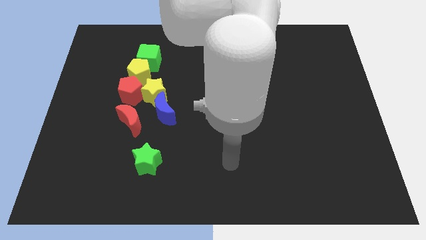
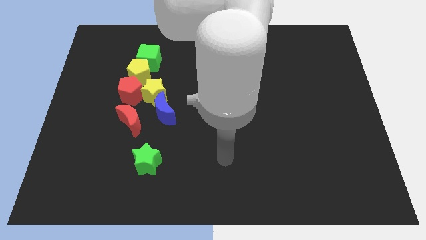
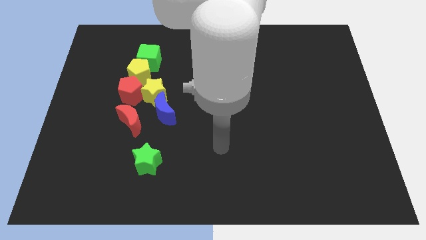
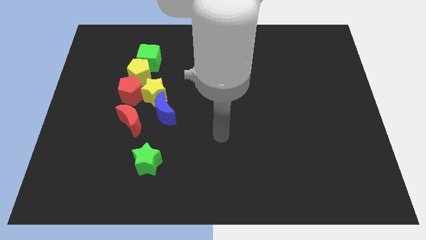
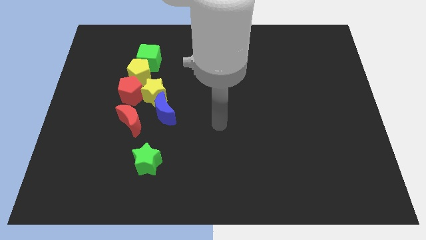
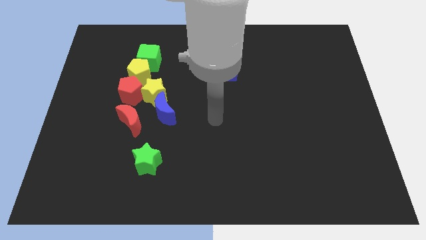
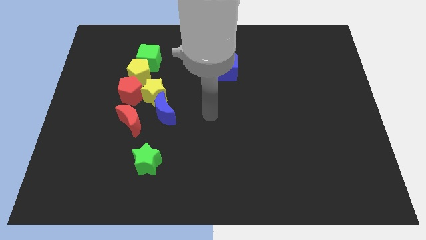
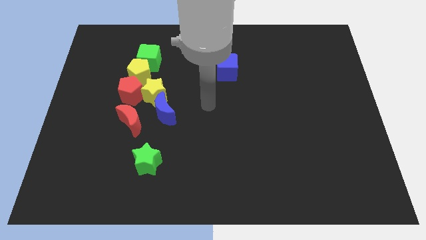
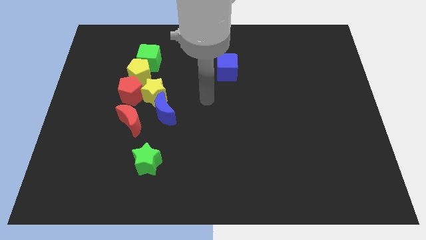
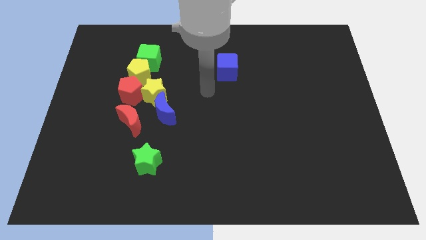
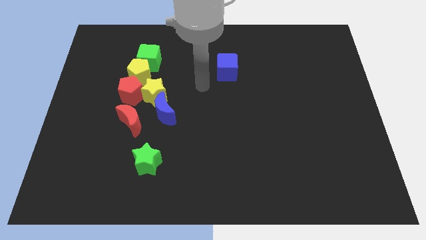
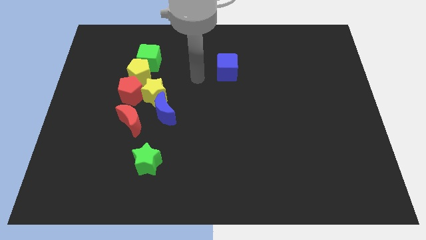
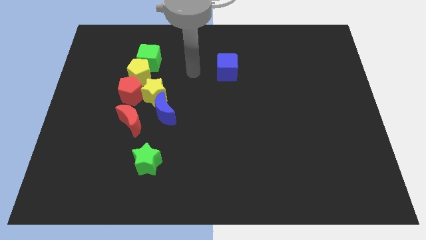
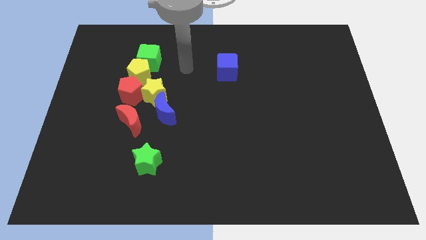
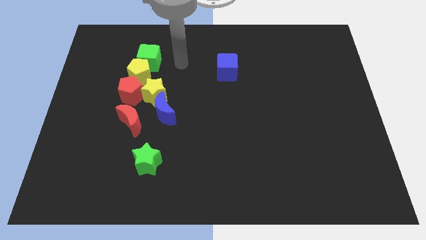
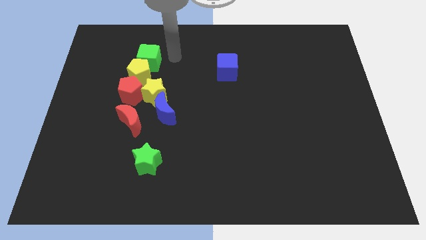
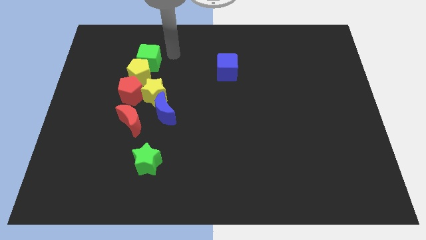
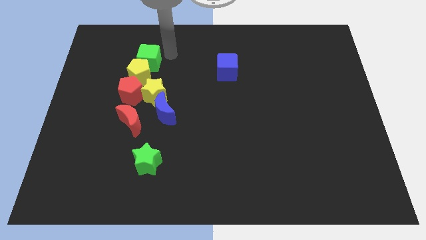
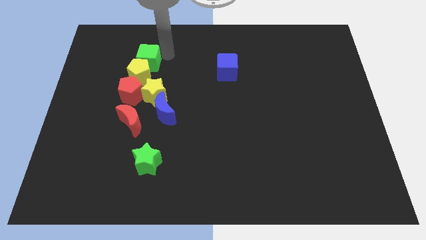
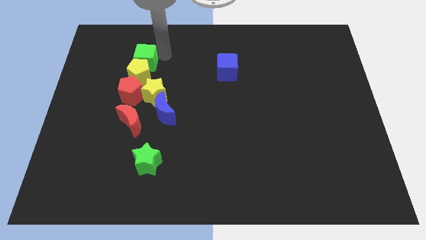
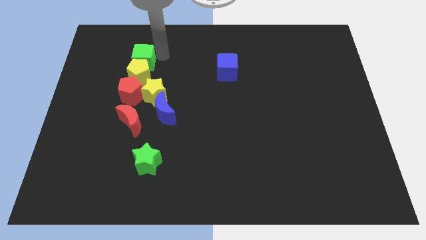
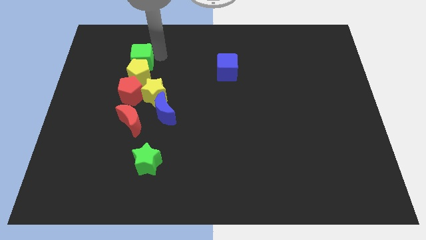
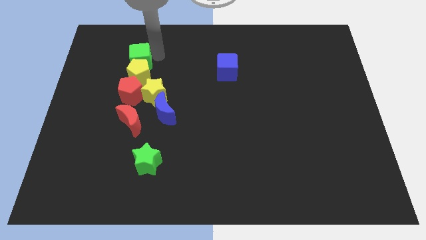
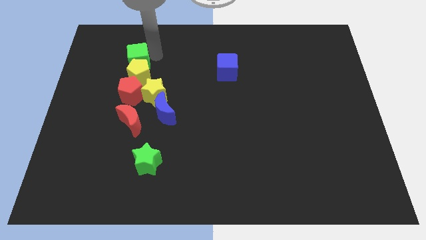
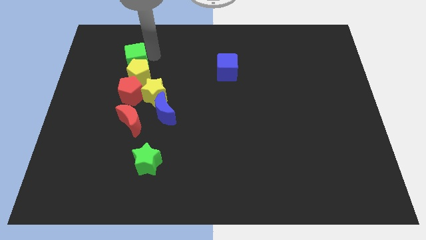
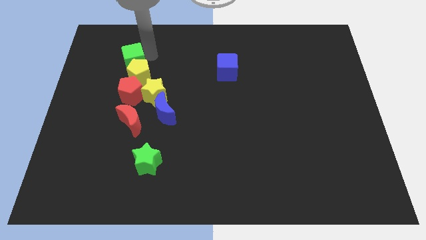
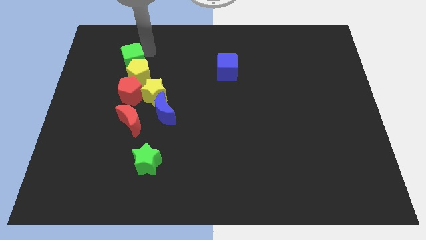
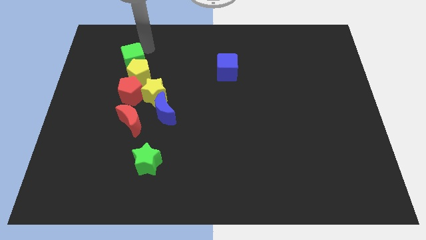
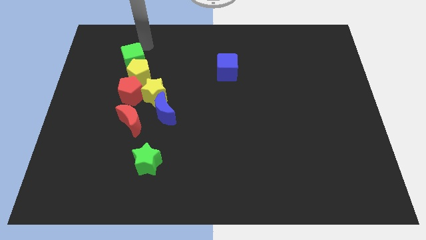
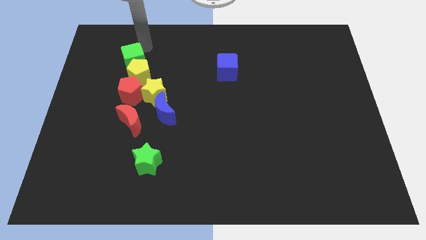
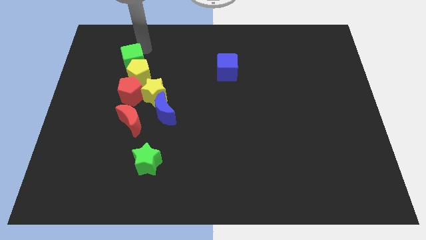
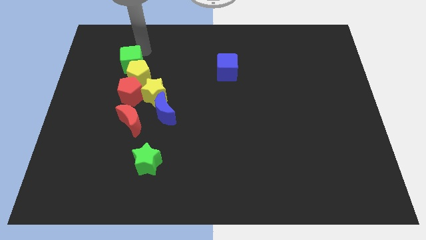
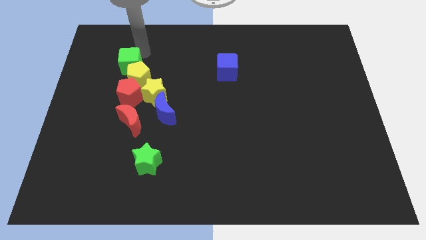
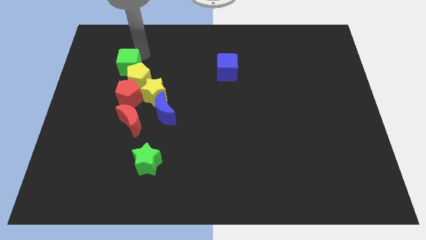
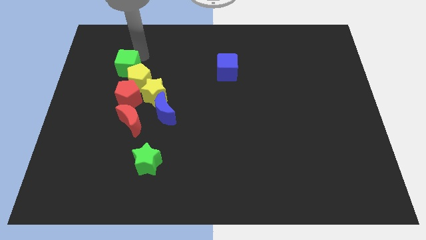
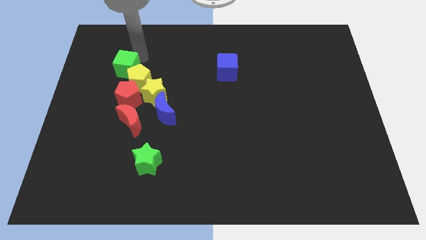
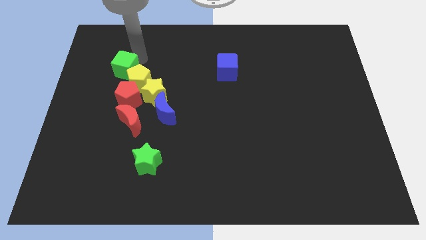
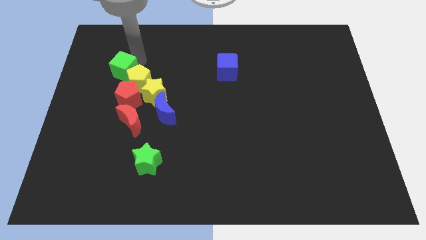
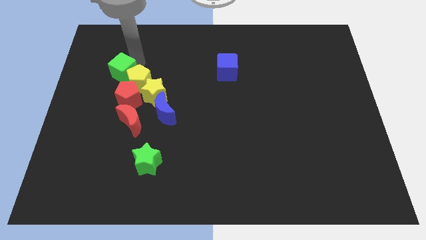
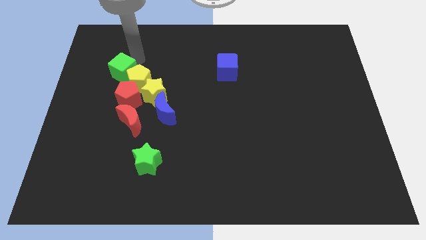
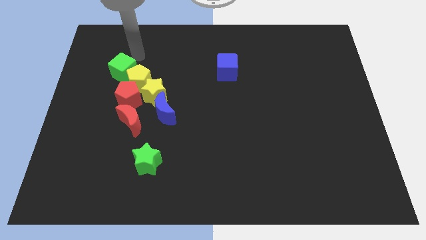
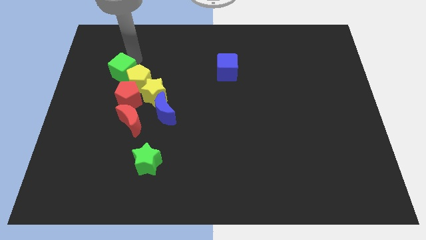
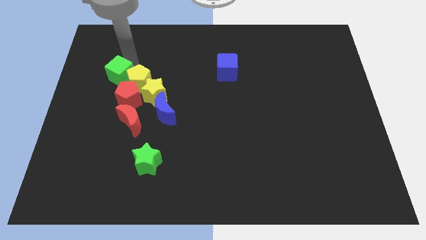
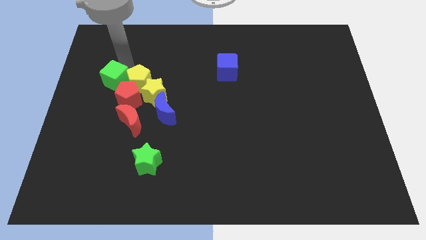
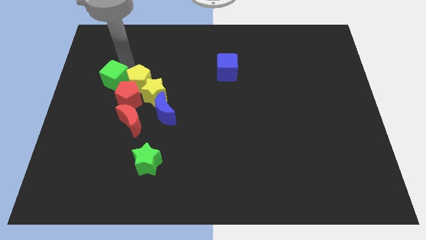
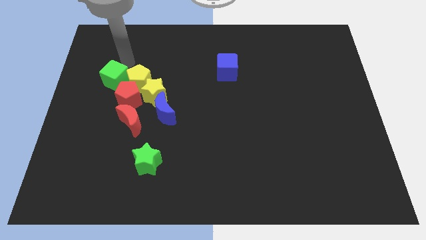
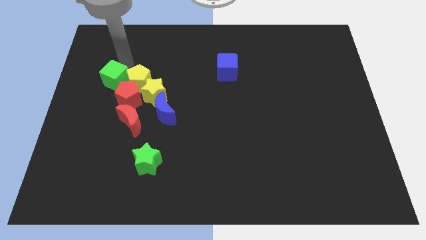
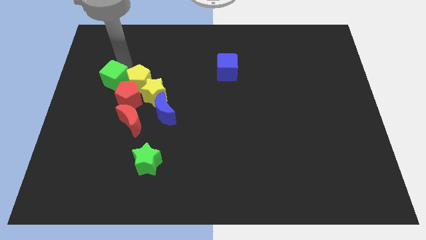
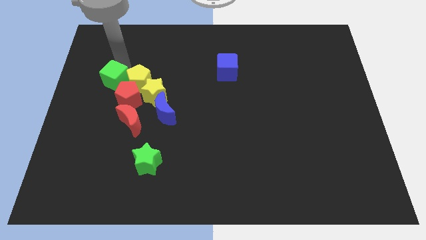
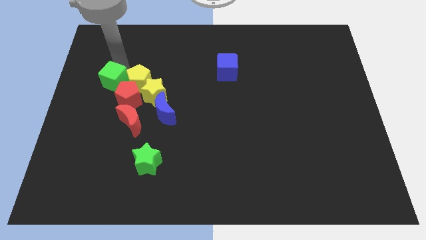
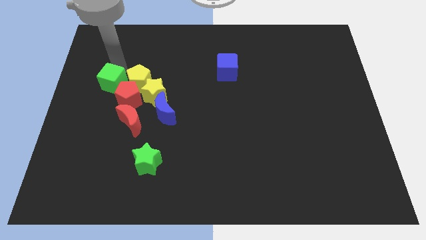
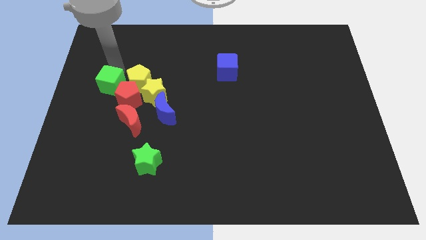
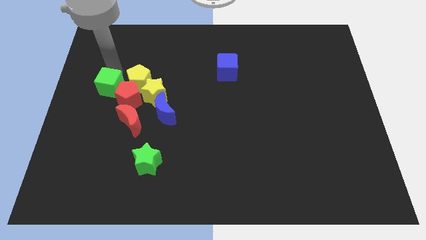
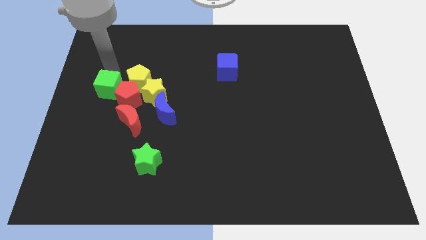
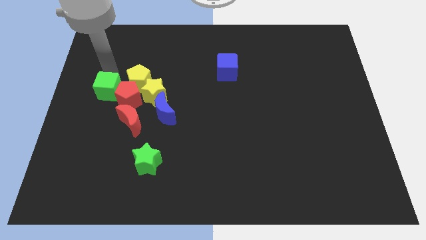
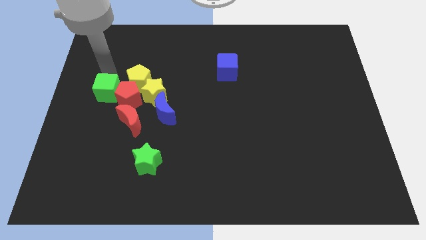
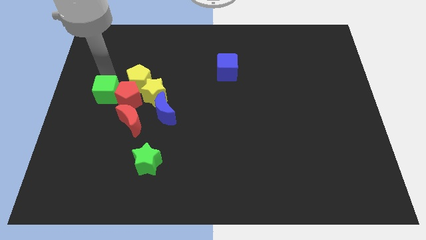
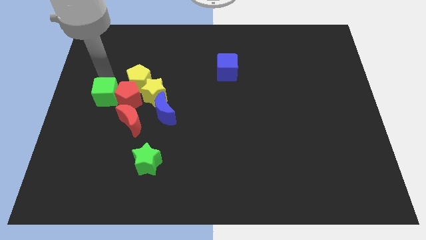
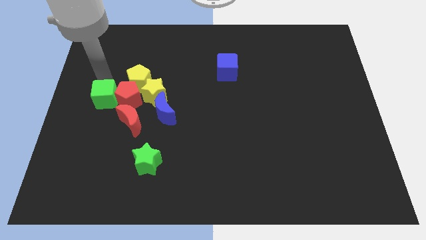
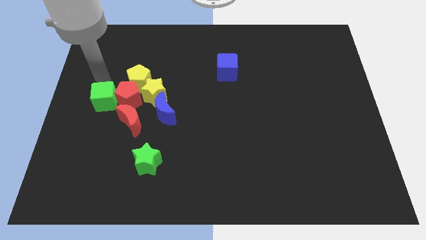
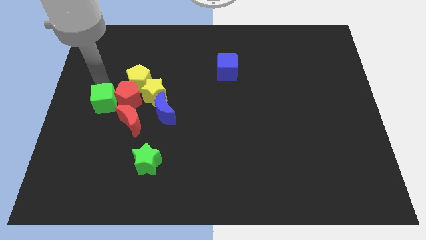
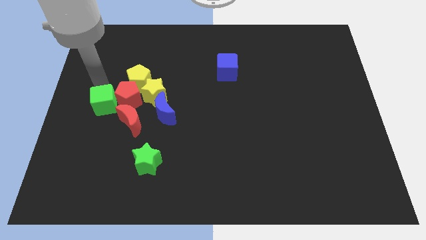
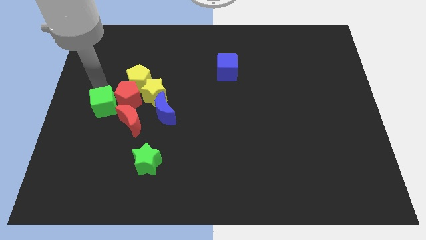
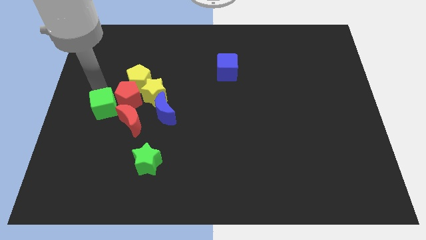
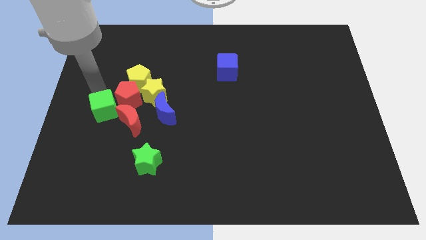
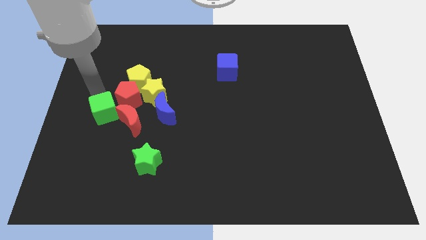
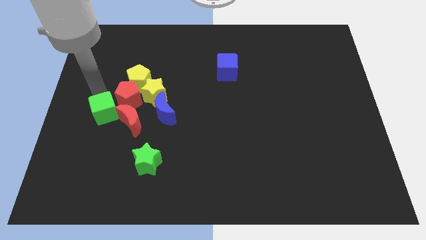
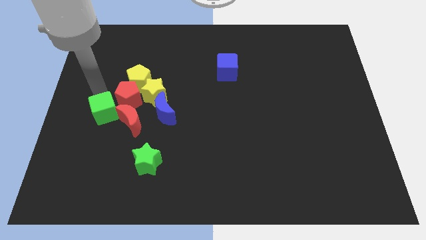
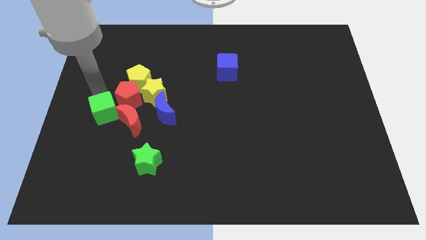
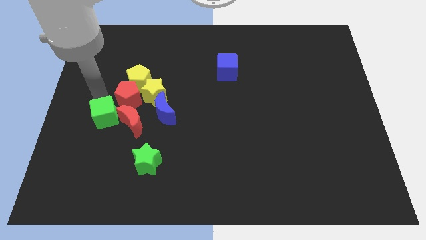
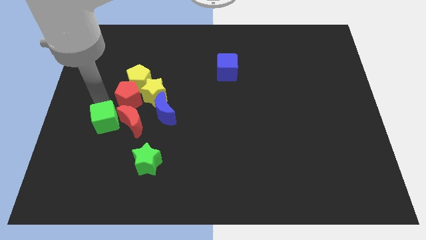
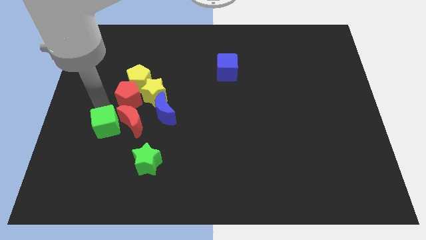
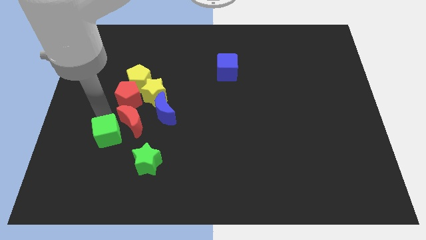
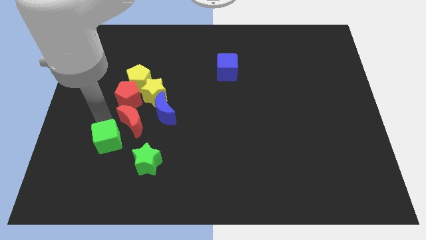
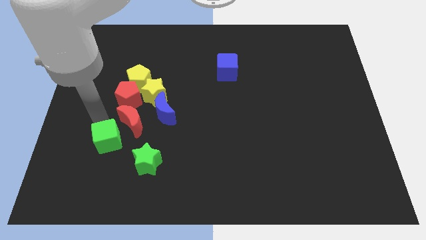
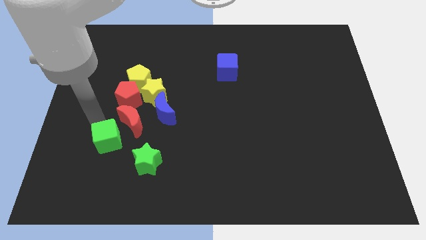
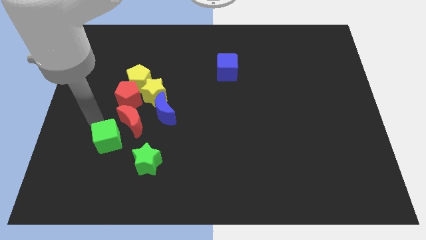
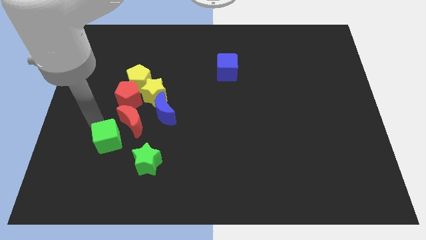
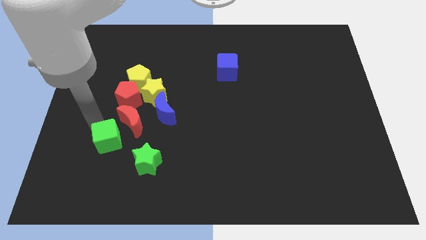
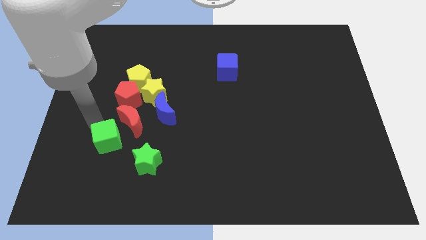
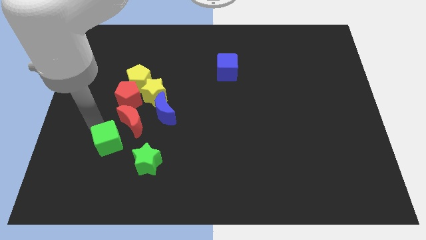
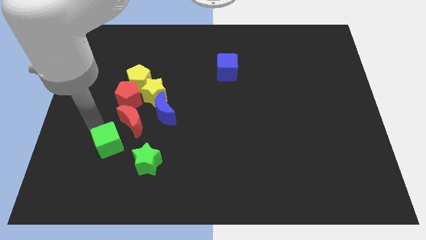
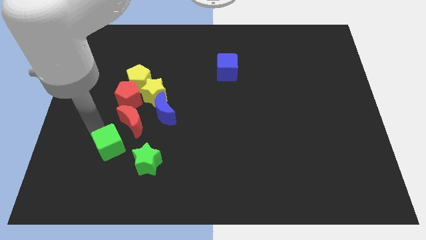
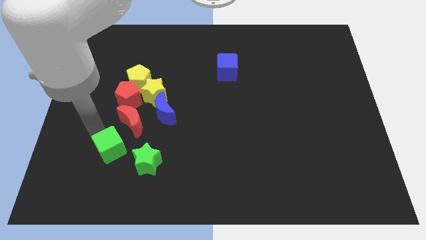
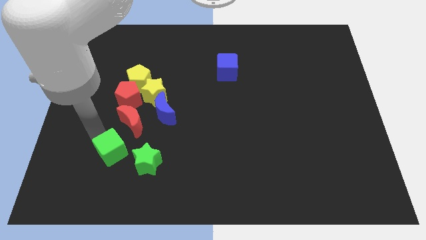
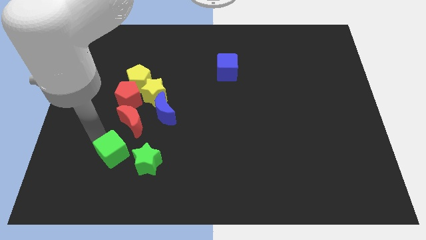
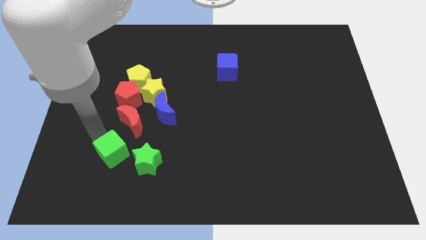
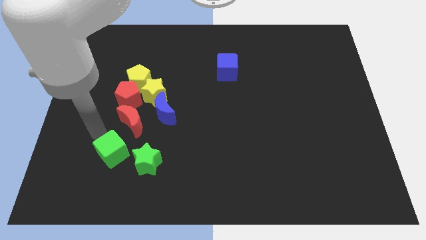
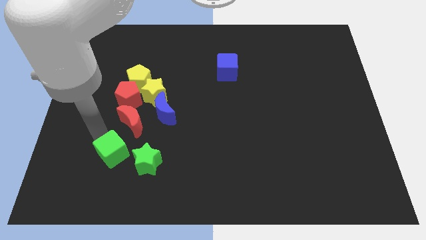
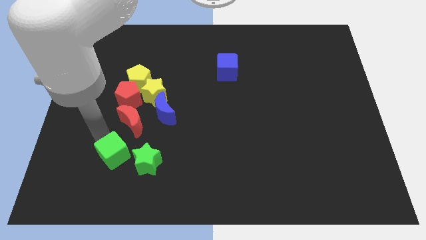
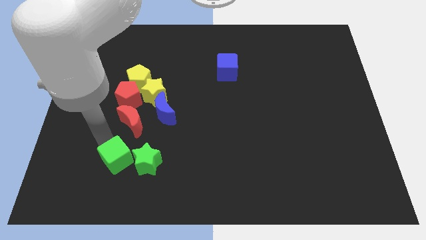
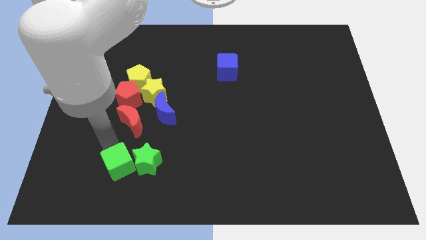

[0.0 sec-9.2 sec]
put the green cube to the bottom left of the green star
